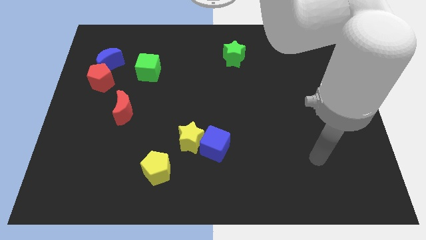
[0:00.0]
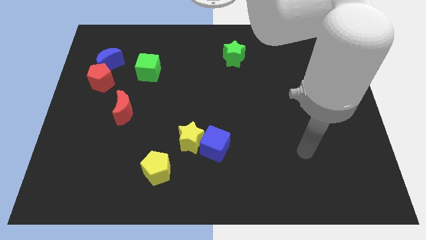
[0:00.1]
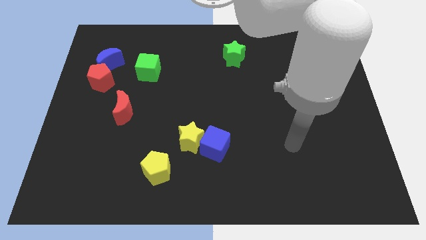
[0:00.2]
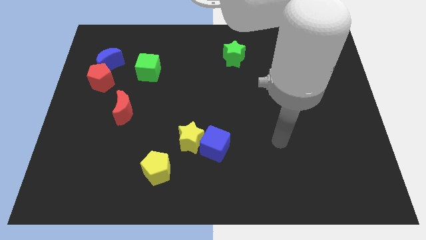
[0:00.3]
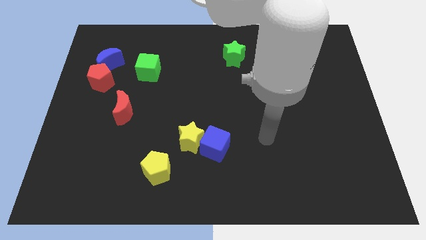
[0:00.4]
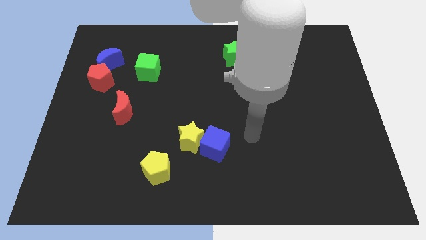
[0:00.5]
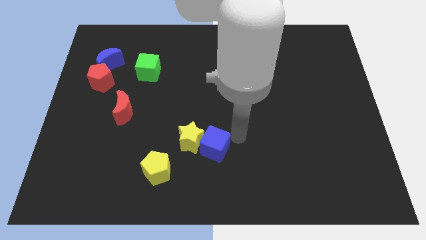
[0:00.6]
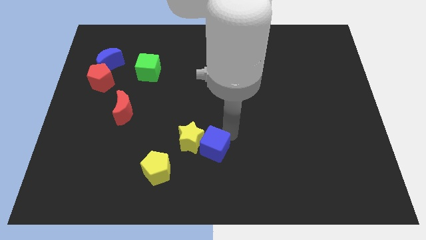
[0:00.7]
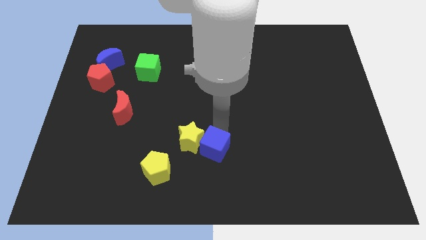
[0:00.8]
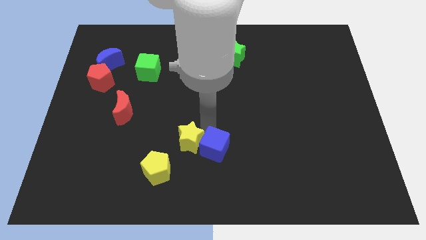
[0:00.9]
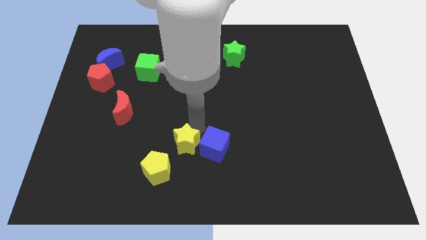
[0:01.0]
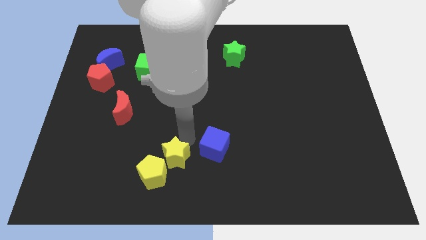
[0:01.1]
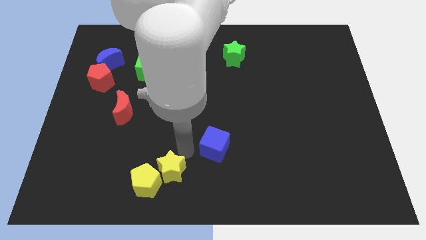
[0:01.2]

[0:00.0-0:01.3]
separate the blue cube from the yellow star

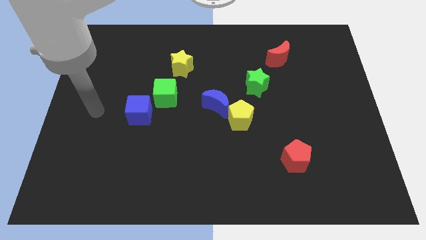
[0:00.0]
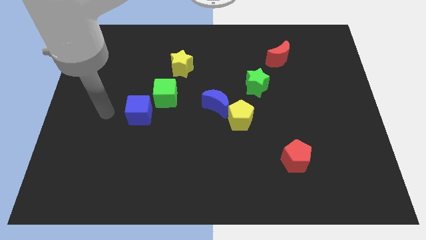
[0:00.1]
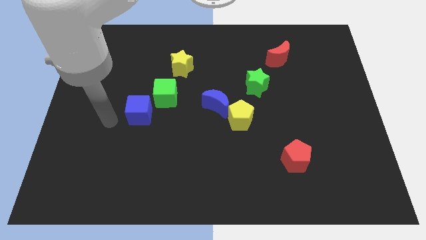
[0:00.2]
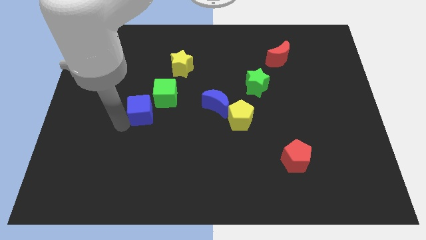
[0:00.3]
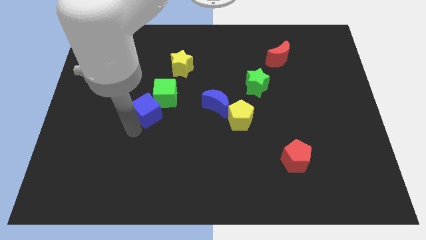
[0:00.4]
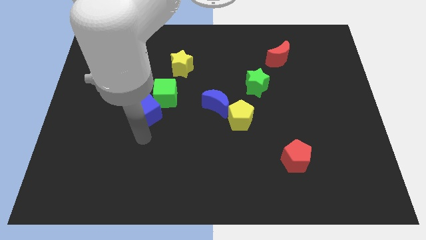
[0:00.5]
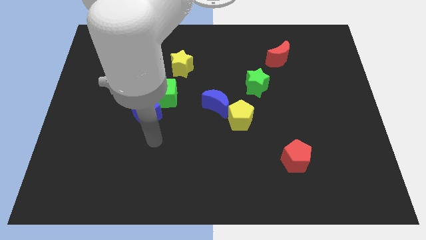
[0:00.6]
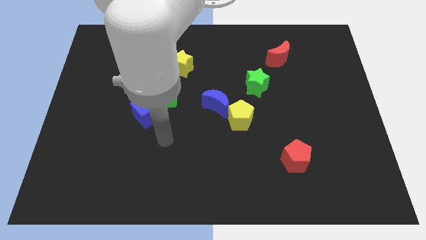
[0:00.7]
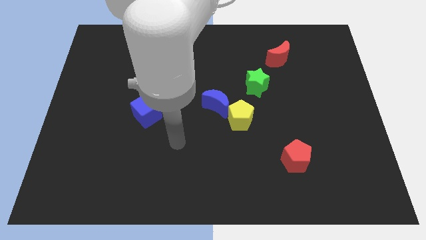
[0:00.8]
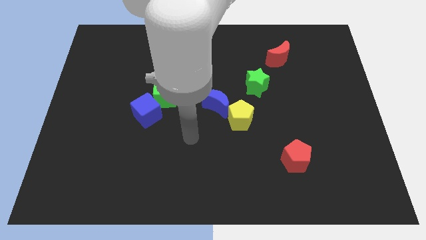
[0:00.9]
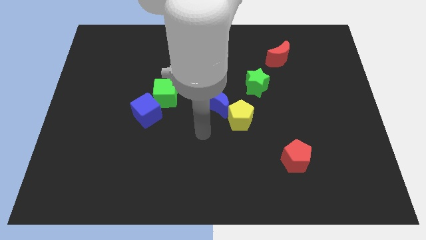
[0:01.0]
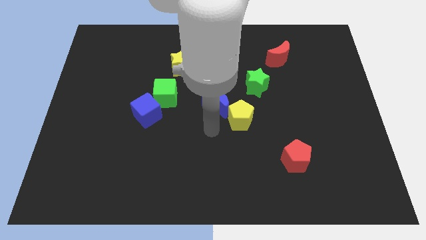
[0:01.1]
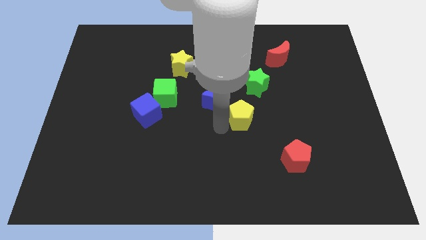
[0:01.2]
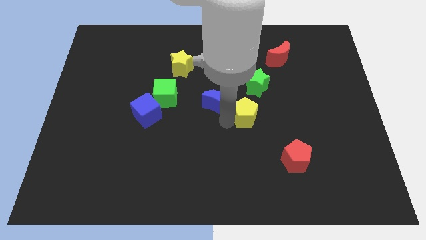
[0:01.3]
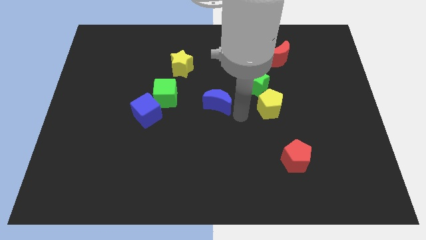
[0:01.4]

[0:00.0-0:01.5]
move the blue moon away from the yellow pentagon

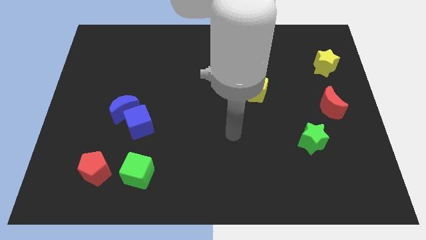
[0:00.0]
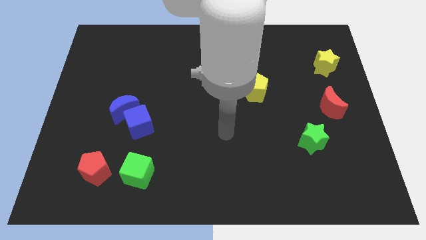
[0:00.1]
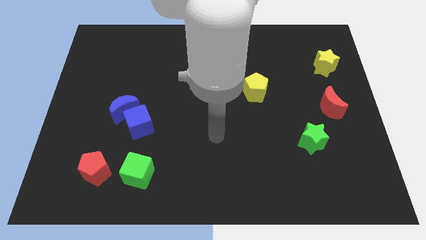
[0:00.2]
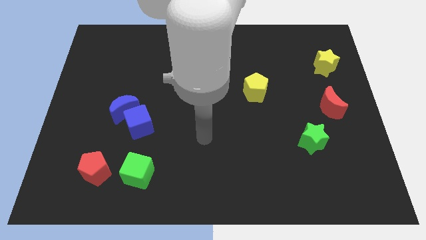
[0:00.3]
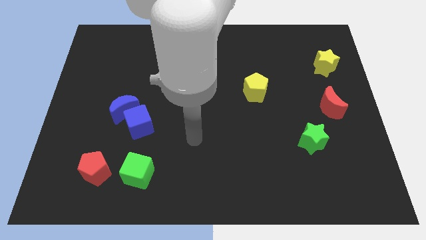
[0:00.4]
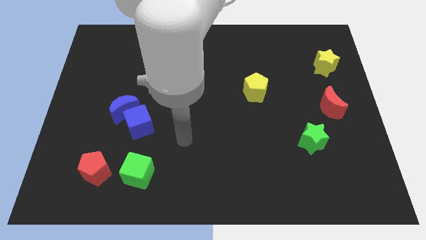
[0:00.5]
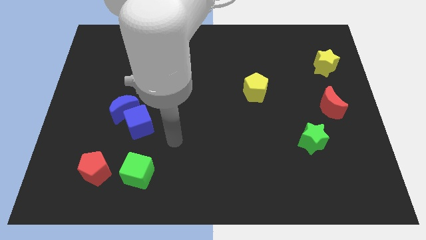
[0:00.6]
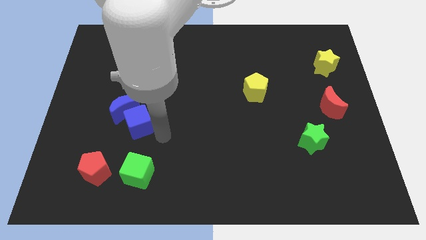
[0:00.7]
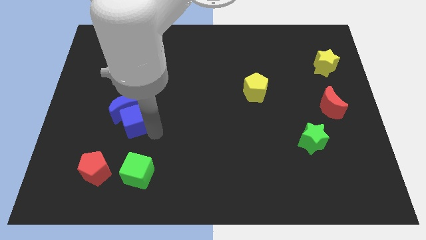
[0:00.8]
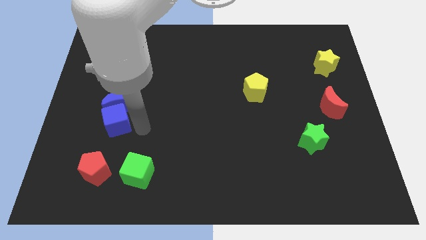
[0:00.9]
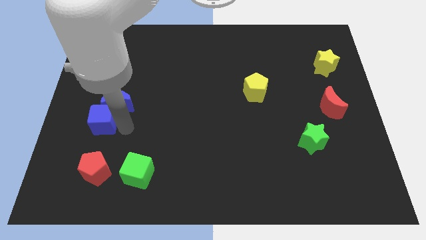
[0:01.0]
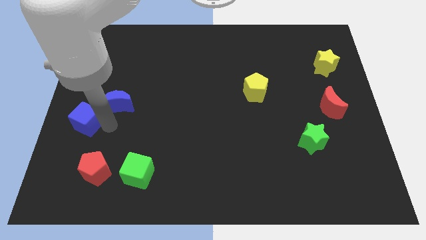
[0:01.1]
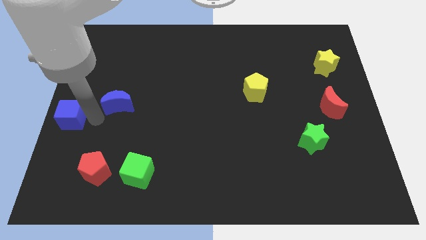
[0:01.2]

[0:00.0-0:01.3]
move the blue moon away from the blue cube

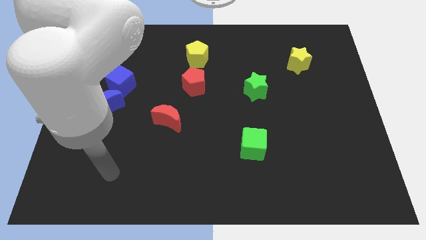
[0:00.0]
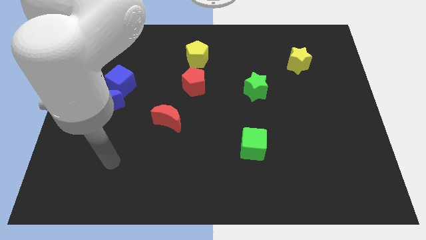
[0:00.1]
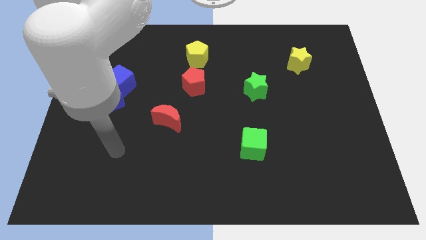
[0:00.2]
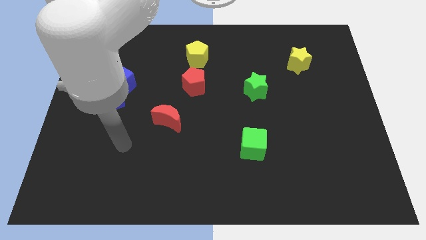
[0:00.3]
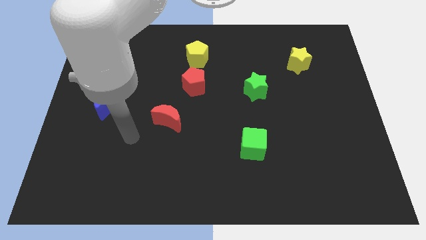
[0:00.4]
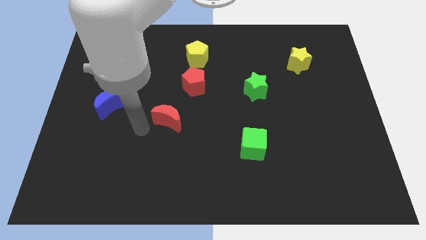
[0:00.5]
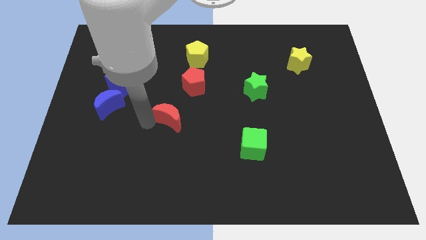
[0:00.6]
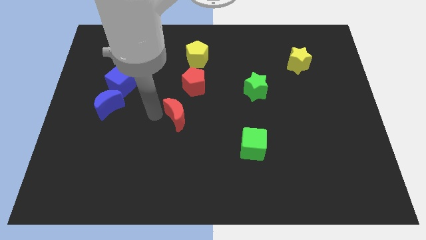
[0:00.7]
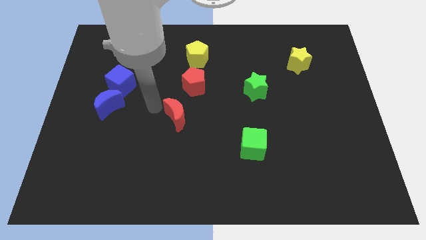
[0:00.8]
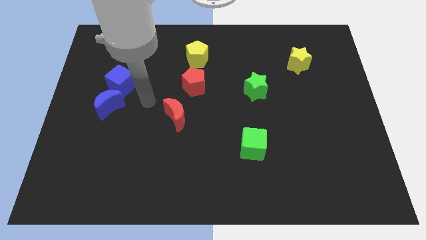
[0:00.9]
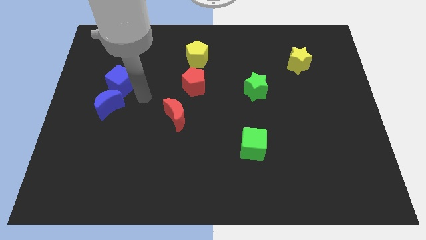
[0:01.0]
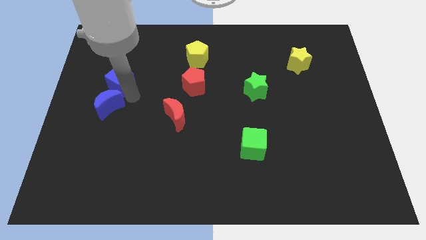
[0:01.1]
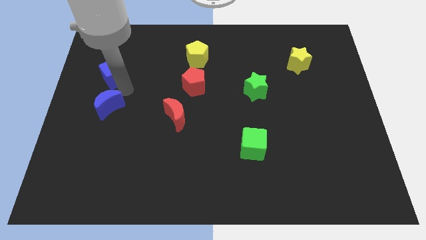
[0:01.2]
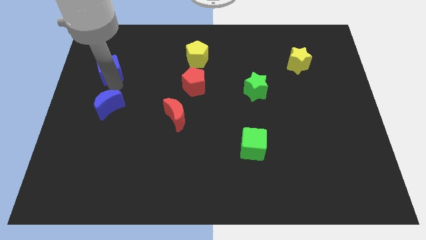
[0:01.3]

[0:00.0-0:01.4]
pull the blue moon apart from the blue cube

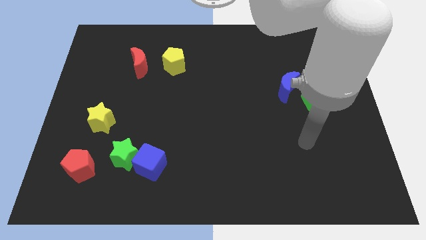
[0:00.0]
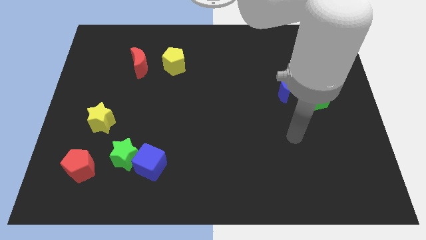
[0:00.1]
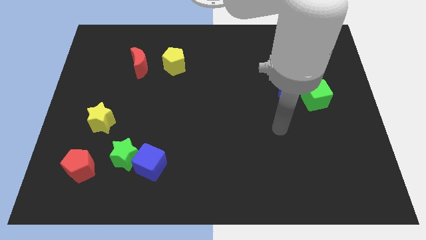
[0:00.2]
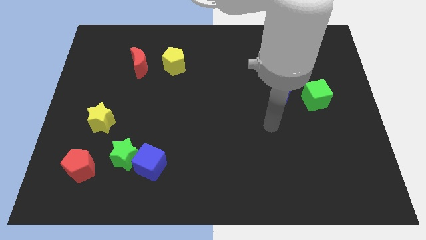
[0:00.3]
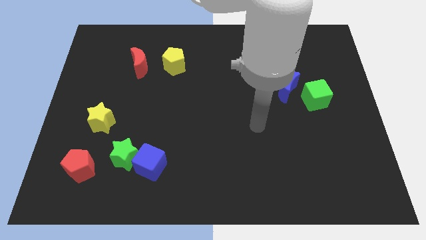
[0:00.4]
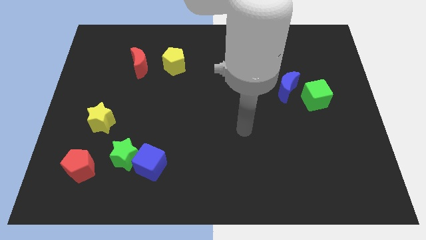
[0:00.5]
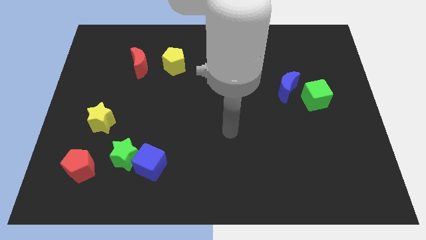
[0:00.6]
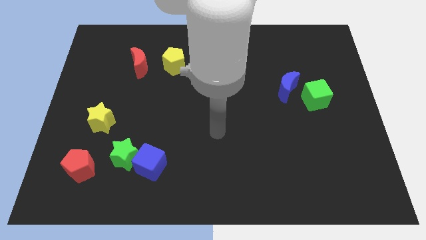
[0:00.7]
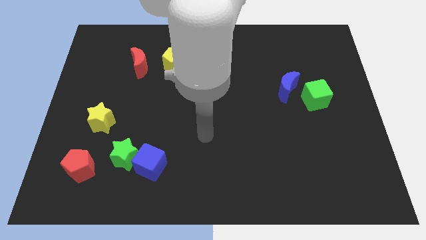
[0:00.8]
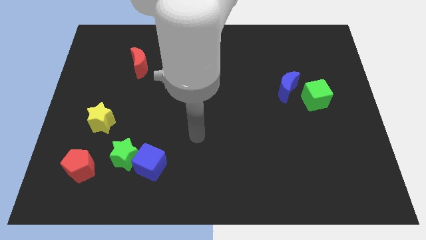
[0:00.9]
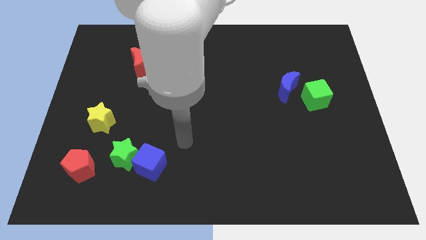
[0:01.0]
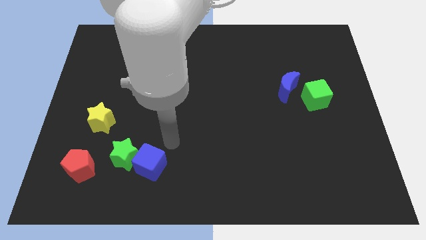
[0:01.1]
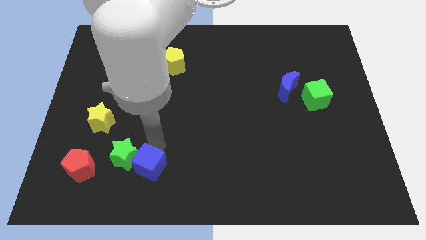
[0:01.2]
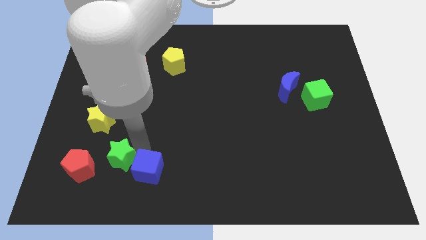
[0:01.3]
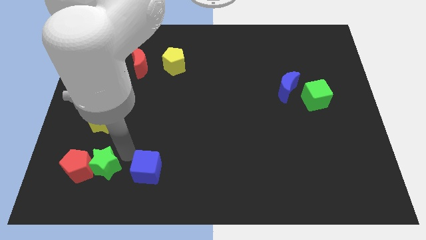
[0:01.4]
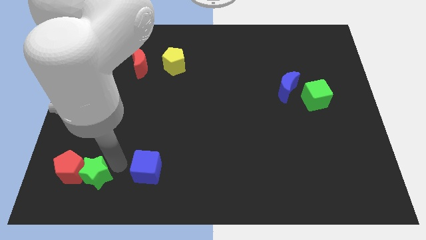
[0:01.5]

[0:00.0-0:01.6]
pull the blue cube apart from the green star

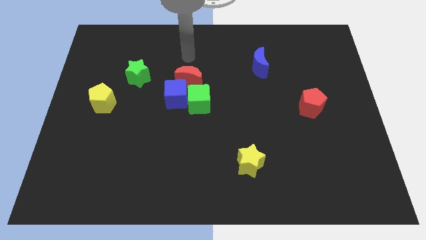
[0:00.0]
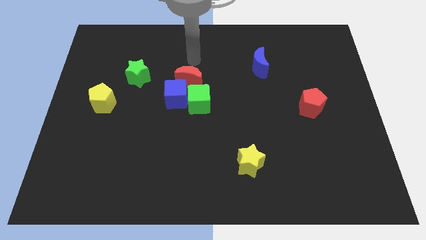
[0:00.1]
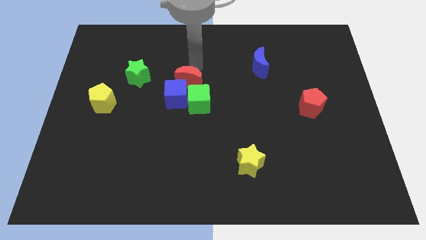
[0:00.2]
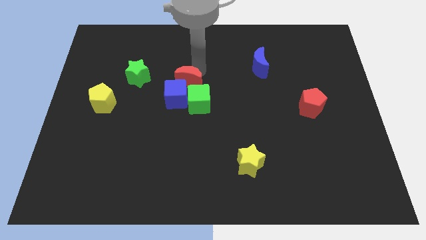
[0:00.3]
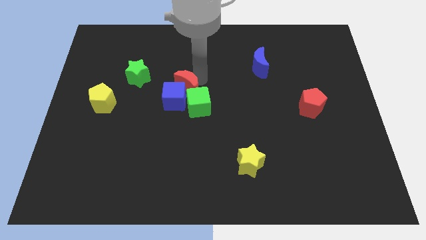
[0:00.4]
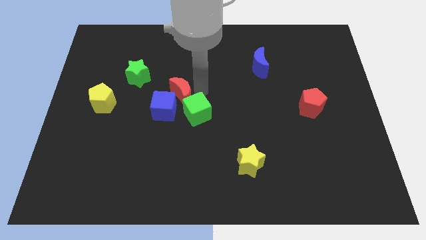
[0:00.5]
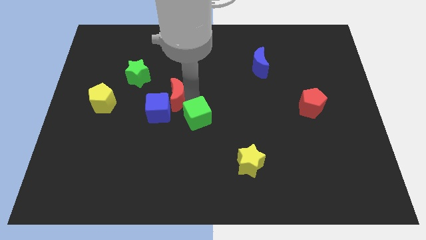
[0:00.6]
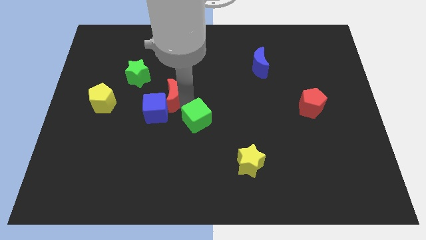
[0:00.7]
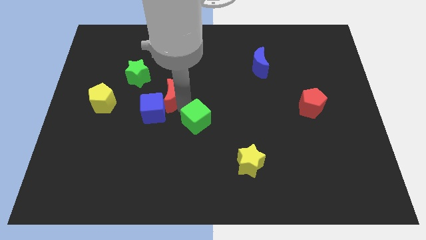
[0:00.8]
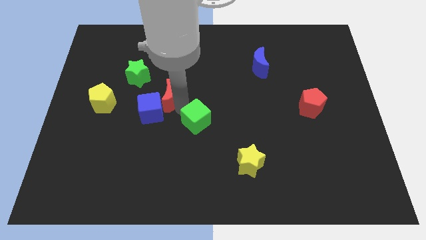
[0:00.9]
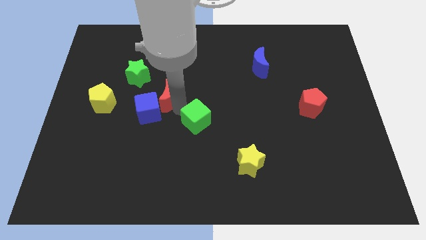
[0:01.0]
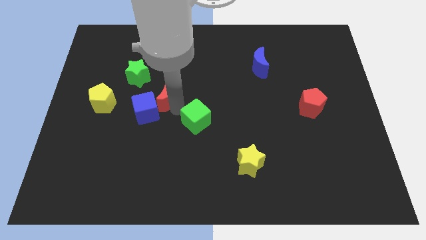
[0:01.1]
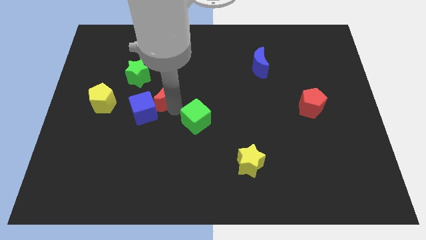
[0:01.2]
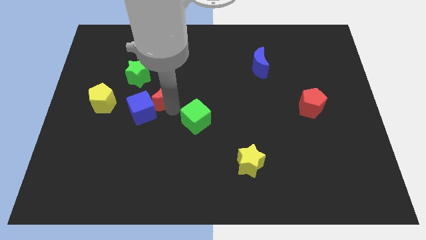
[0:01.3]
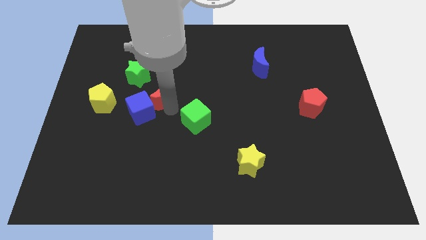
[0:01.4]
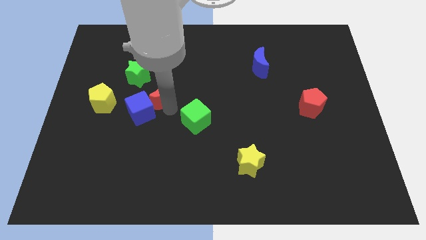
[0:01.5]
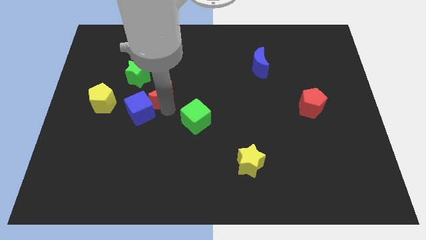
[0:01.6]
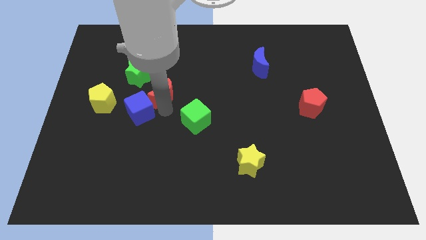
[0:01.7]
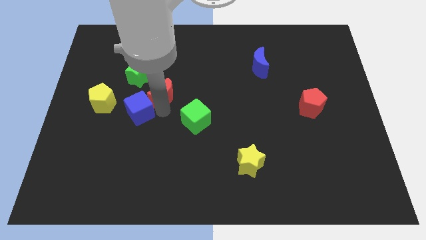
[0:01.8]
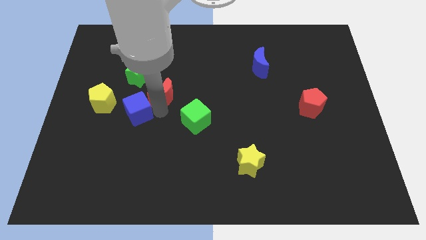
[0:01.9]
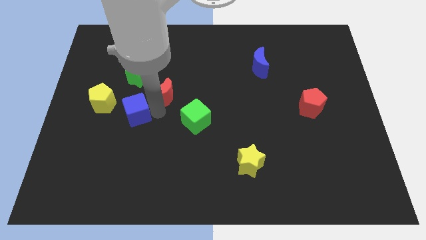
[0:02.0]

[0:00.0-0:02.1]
move the blue cube away from the green cube and red moon

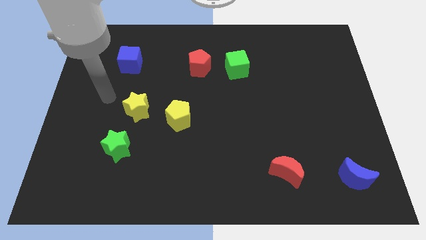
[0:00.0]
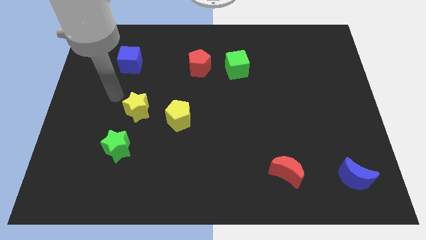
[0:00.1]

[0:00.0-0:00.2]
move the red pentagon away from the green cube
